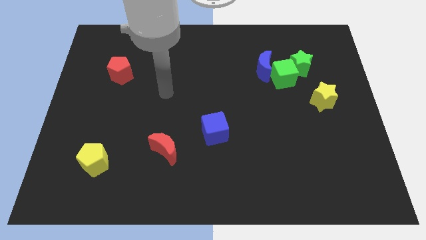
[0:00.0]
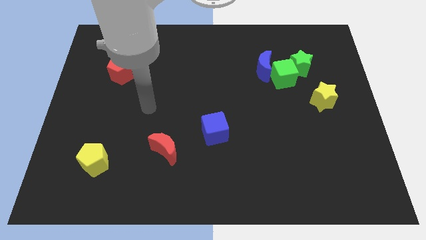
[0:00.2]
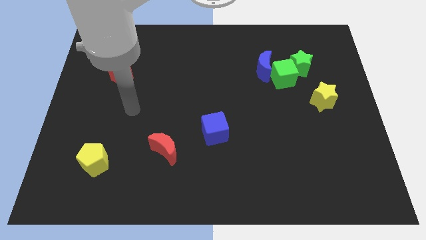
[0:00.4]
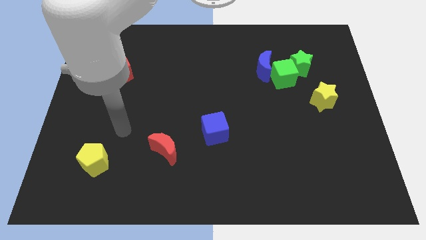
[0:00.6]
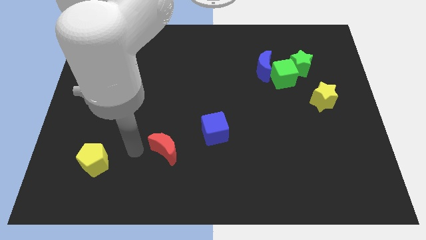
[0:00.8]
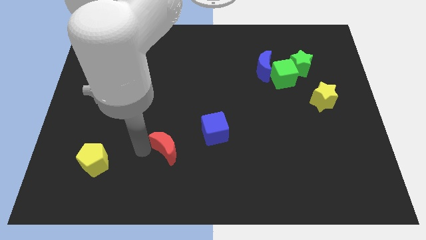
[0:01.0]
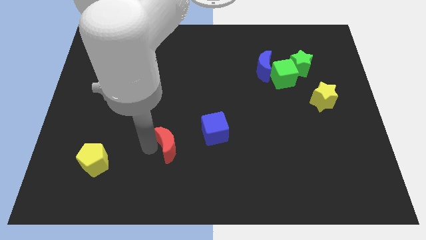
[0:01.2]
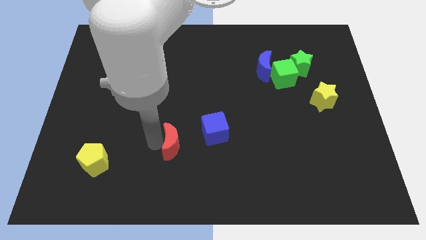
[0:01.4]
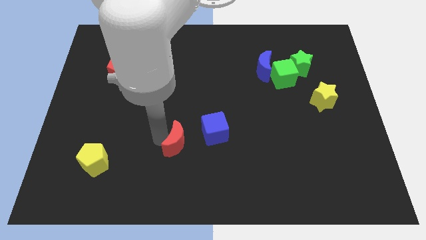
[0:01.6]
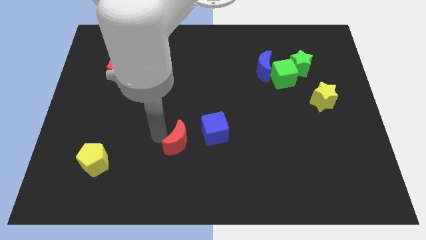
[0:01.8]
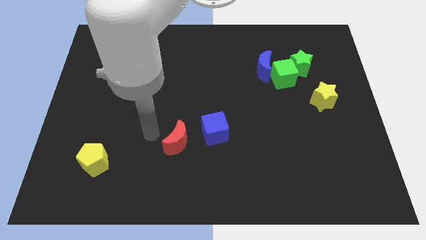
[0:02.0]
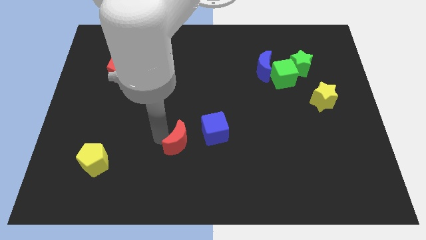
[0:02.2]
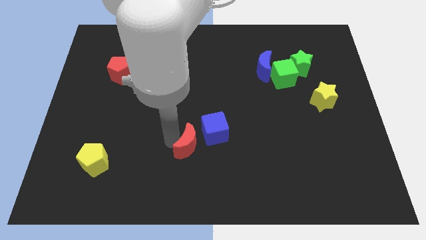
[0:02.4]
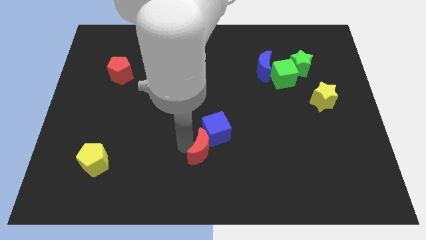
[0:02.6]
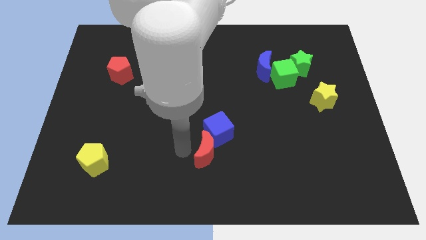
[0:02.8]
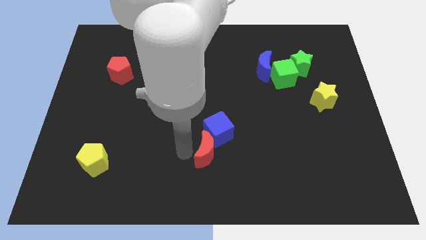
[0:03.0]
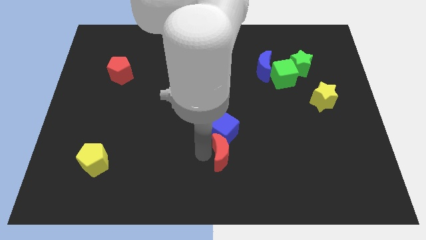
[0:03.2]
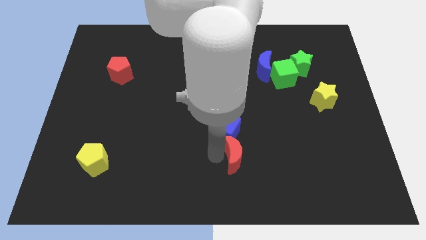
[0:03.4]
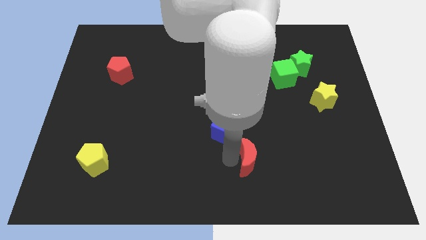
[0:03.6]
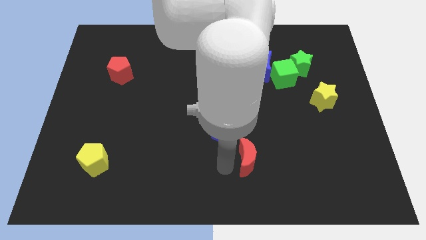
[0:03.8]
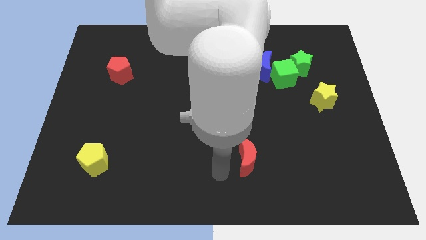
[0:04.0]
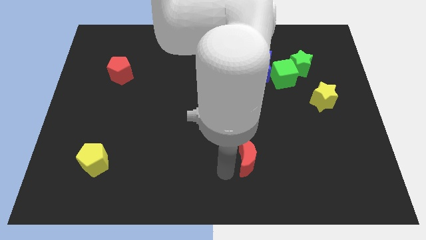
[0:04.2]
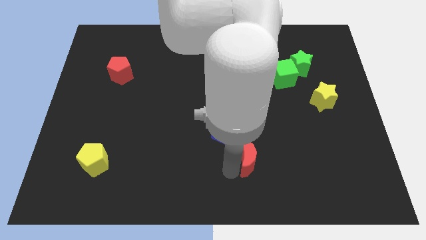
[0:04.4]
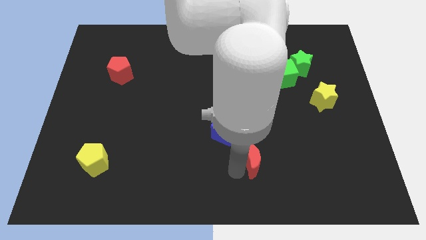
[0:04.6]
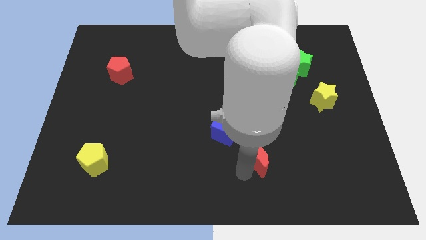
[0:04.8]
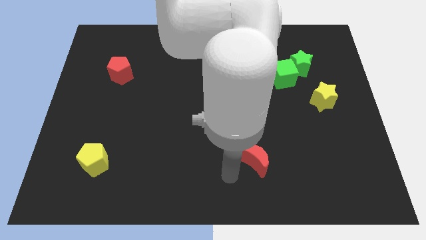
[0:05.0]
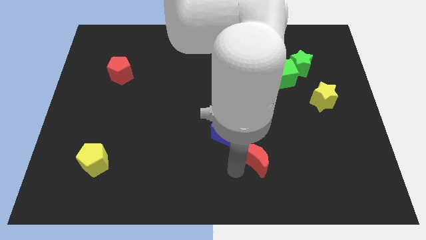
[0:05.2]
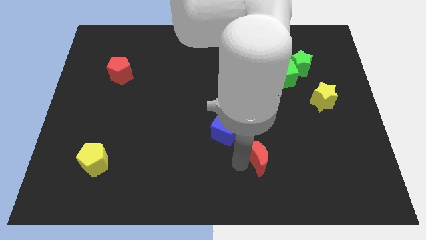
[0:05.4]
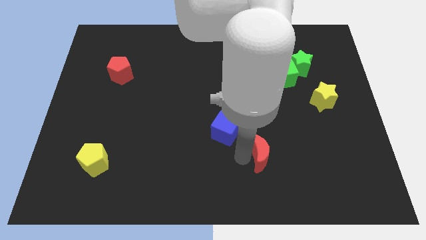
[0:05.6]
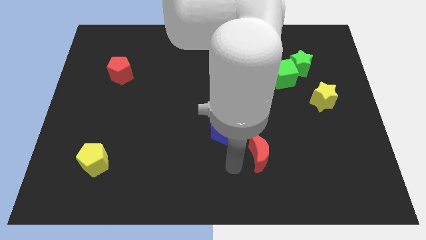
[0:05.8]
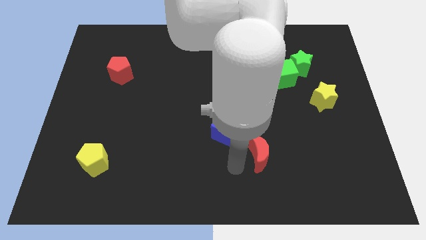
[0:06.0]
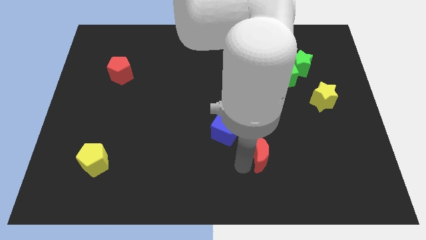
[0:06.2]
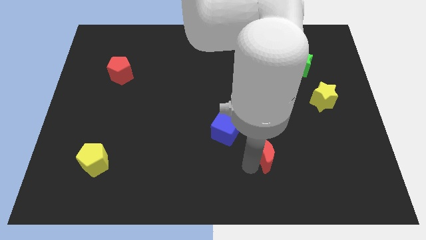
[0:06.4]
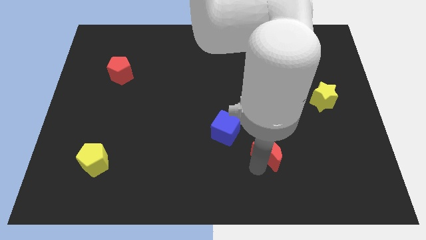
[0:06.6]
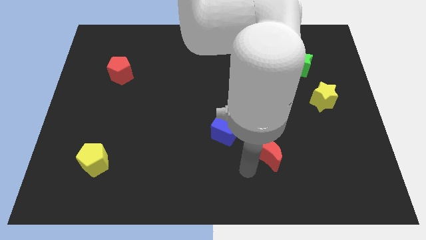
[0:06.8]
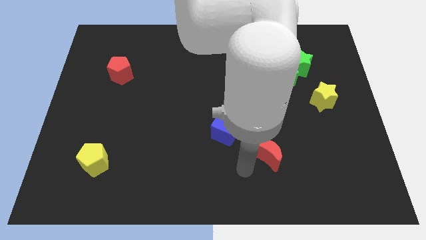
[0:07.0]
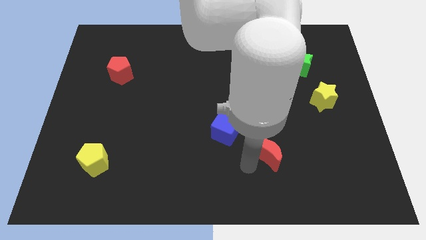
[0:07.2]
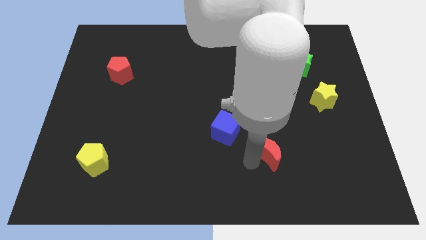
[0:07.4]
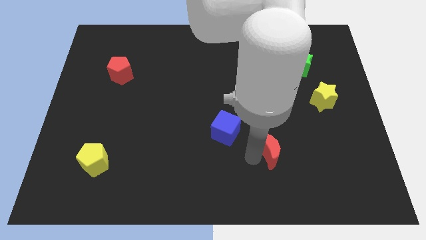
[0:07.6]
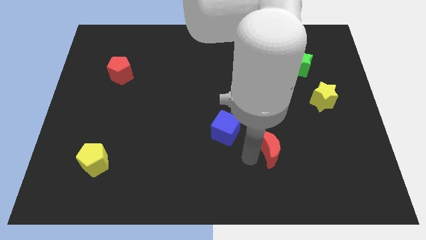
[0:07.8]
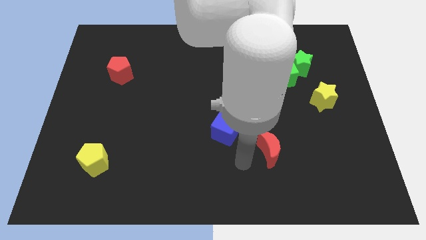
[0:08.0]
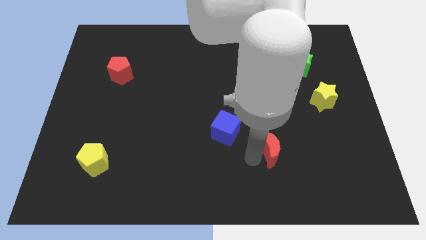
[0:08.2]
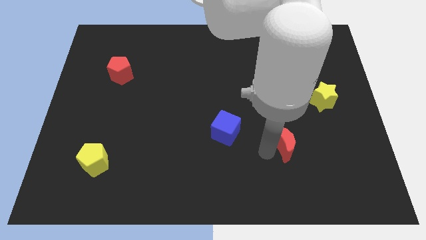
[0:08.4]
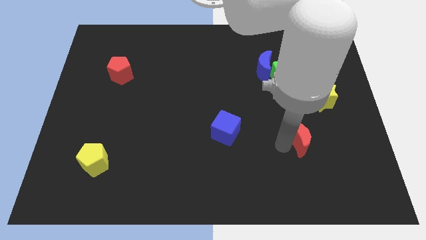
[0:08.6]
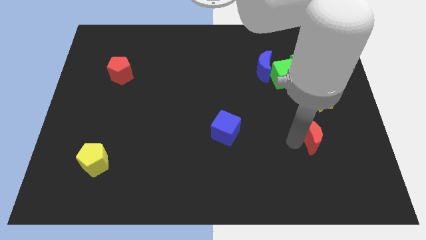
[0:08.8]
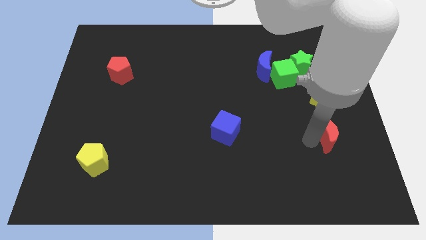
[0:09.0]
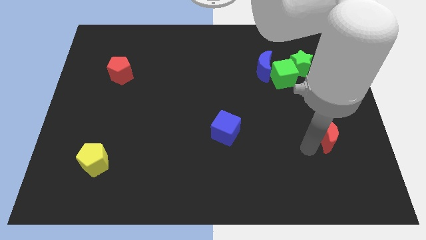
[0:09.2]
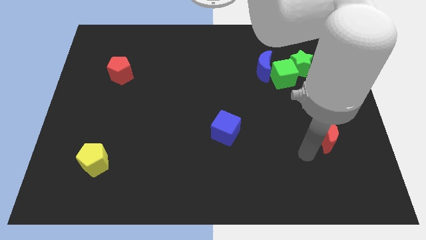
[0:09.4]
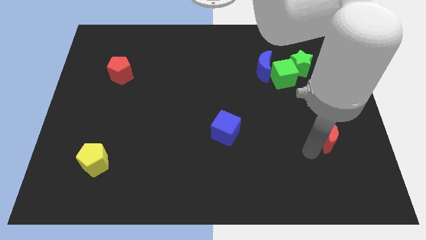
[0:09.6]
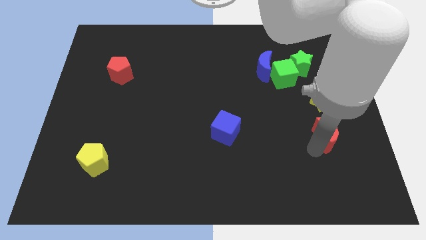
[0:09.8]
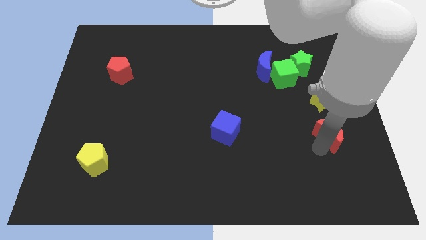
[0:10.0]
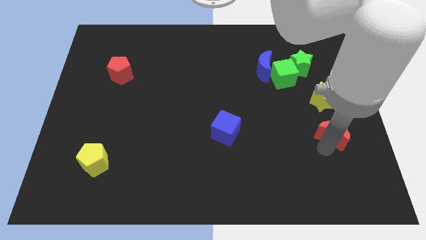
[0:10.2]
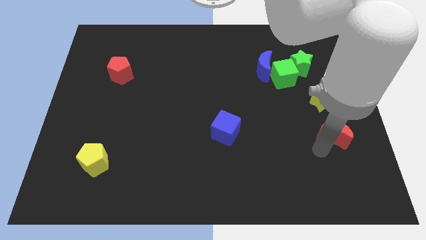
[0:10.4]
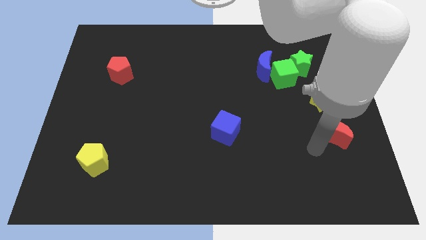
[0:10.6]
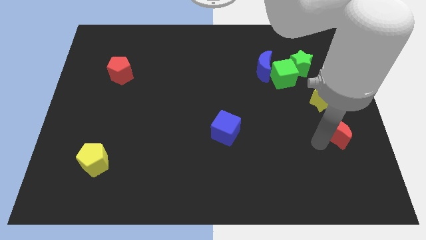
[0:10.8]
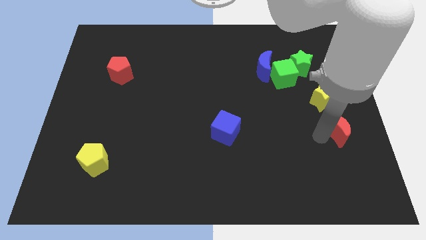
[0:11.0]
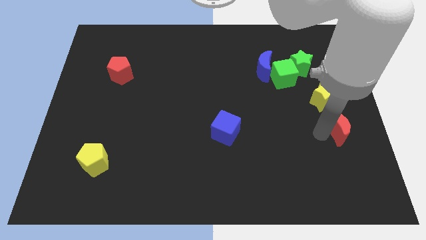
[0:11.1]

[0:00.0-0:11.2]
slide the red moon to the right side

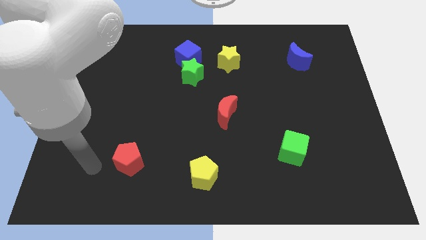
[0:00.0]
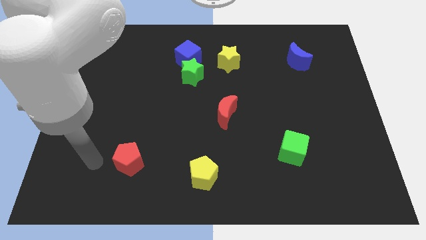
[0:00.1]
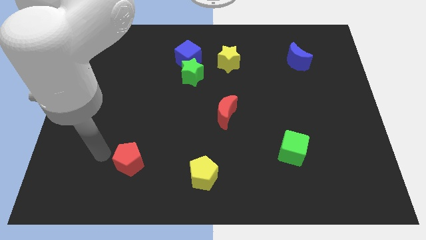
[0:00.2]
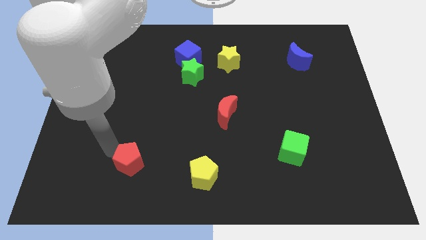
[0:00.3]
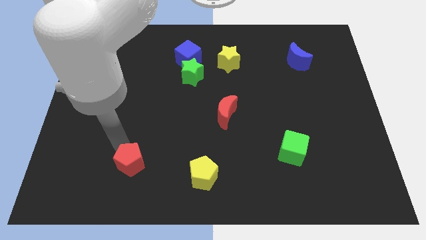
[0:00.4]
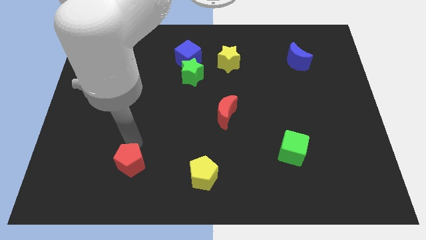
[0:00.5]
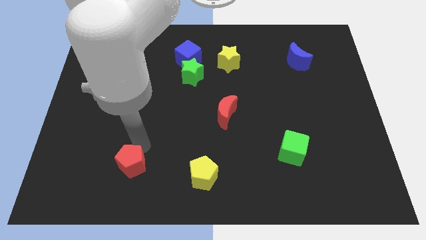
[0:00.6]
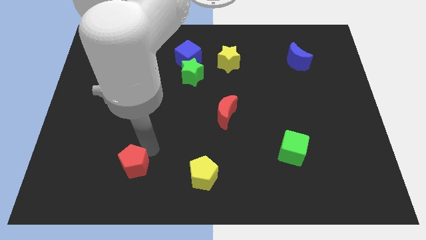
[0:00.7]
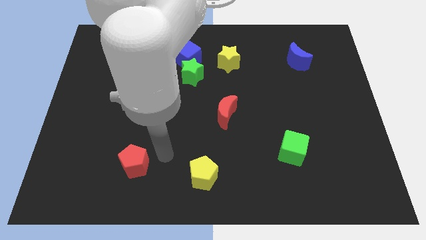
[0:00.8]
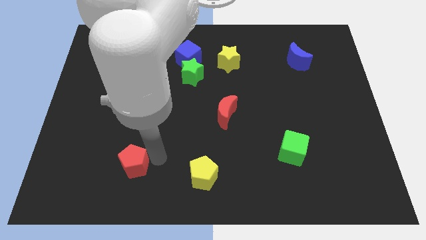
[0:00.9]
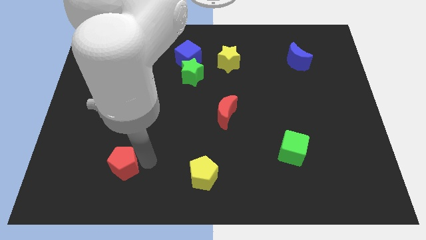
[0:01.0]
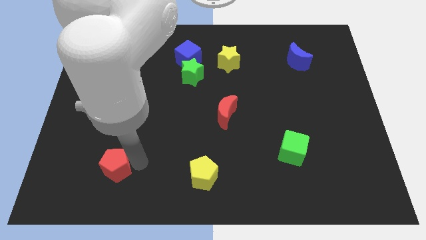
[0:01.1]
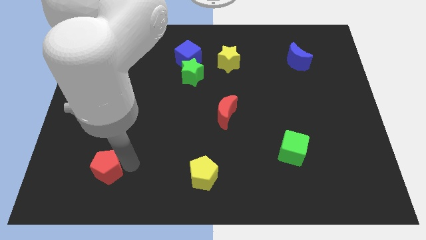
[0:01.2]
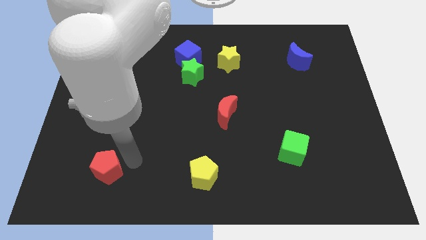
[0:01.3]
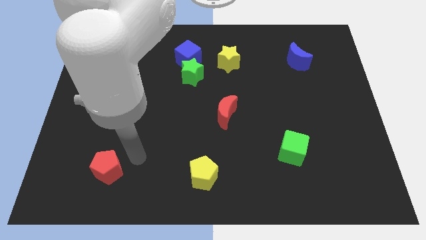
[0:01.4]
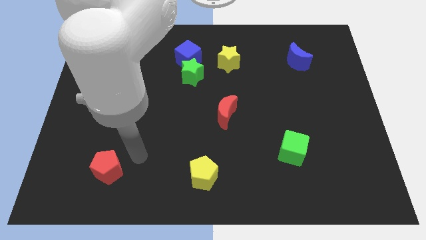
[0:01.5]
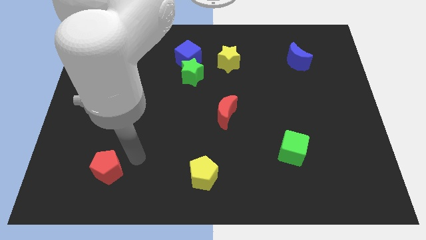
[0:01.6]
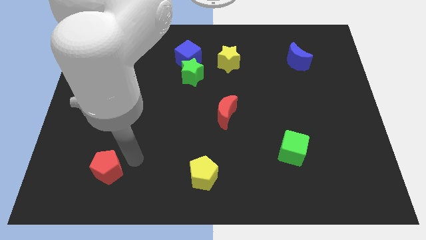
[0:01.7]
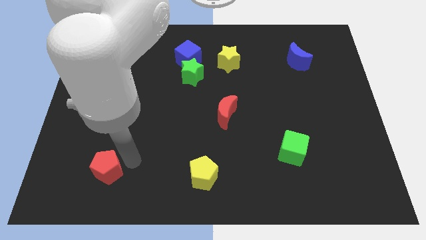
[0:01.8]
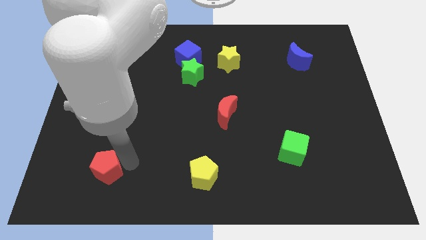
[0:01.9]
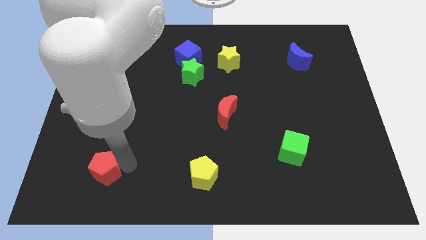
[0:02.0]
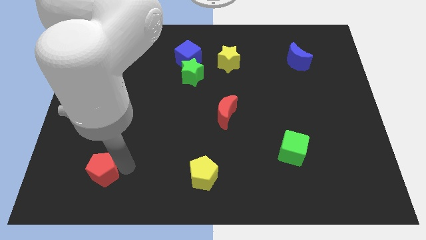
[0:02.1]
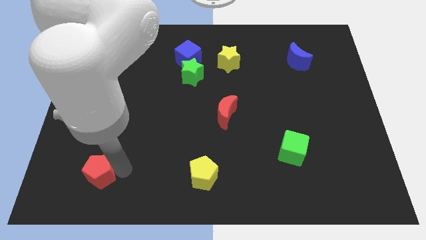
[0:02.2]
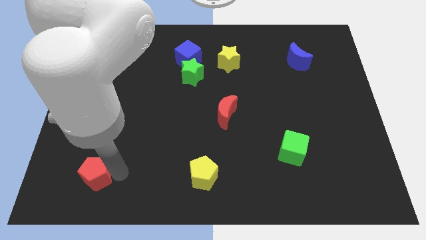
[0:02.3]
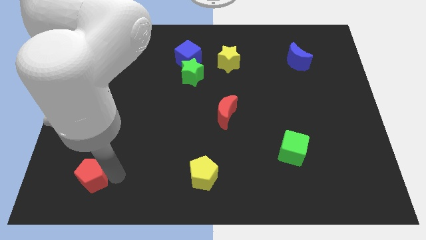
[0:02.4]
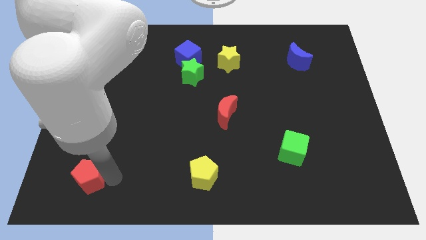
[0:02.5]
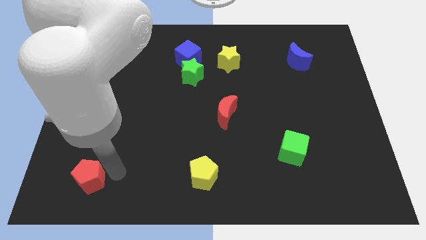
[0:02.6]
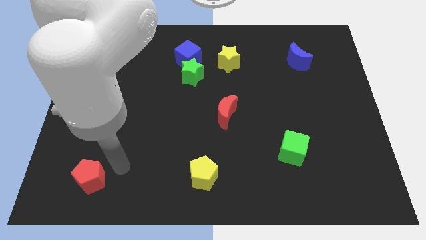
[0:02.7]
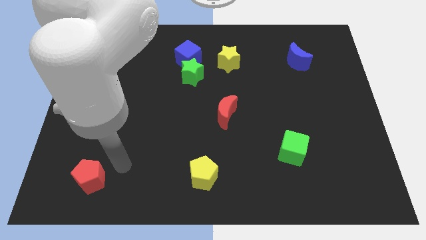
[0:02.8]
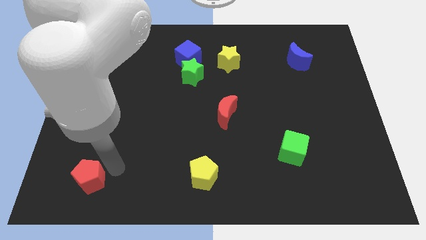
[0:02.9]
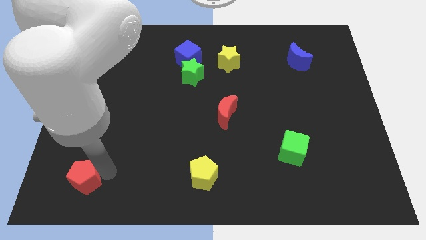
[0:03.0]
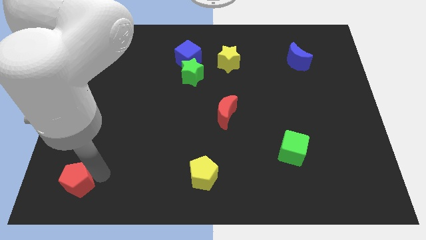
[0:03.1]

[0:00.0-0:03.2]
slide the red pentagon to the bottom left
